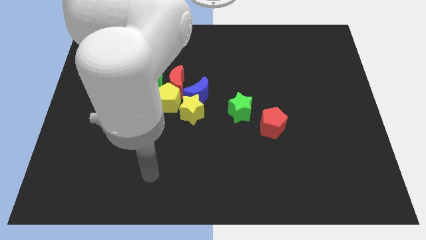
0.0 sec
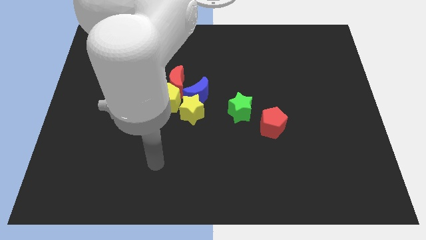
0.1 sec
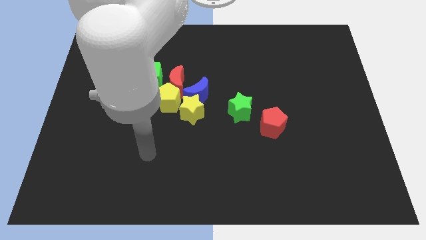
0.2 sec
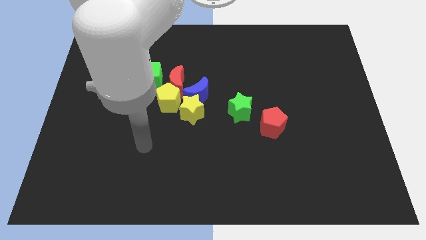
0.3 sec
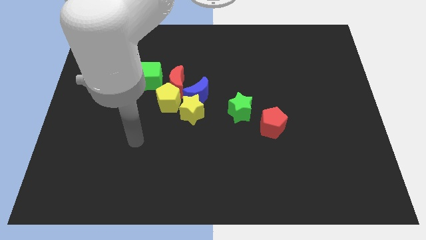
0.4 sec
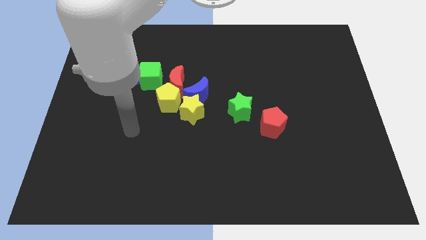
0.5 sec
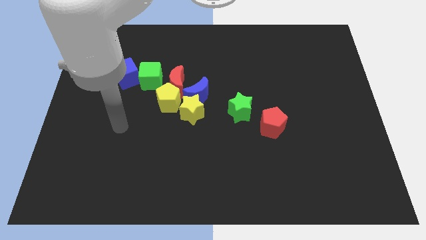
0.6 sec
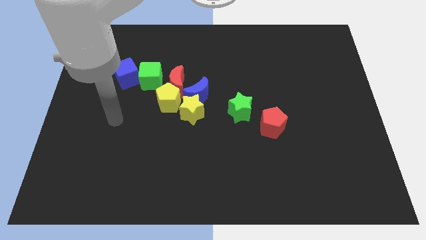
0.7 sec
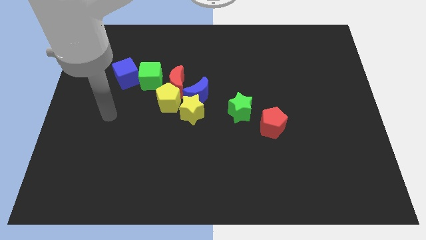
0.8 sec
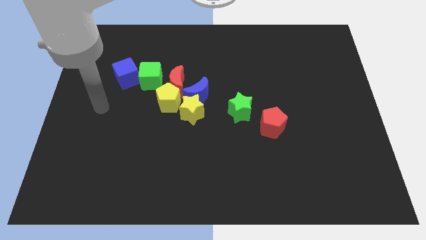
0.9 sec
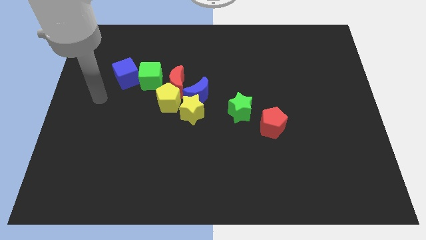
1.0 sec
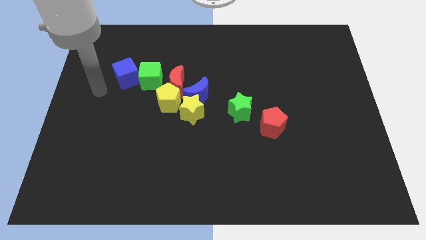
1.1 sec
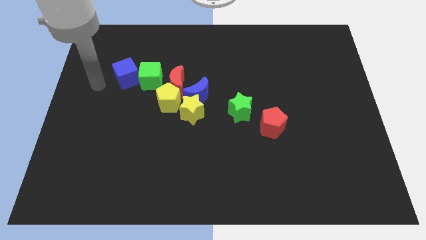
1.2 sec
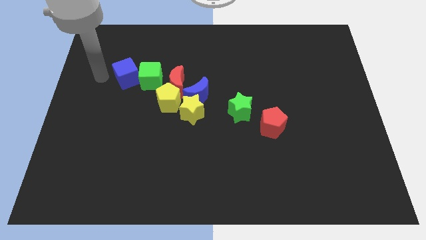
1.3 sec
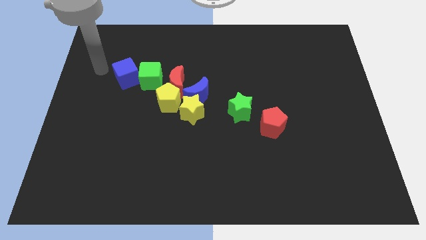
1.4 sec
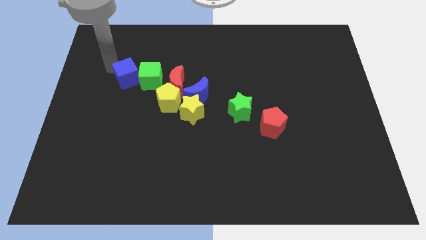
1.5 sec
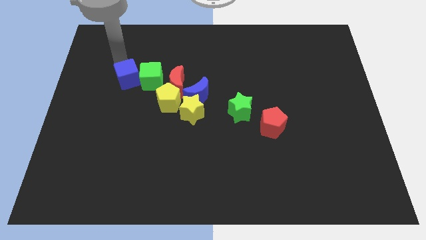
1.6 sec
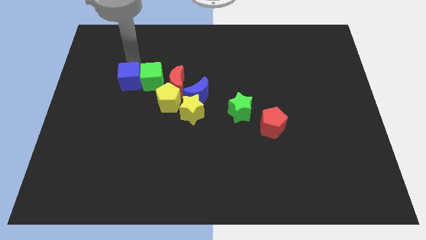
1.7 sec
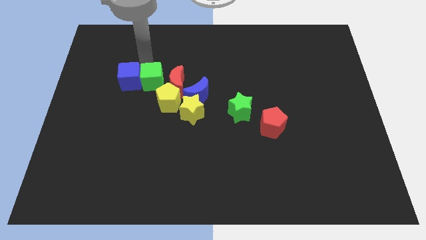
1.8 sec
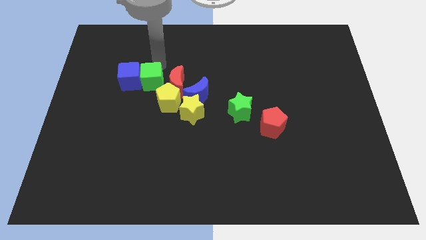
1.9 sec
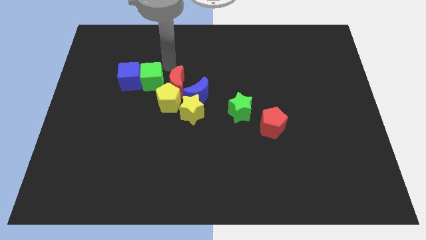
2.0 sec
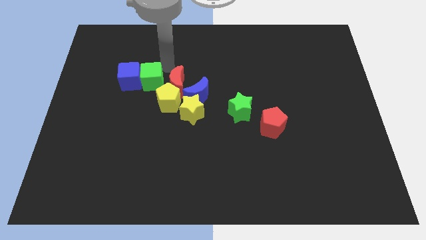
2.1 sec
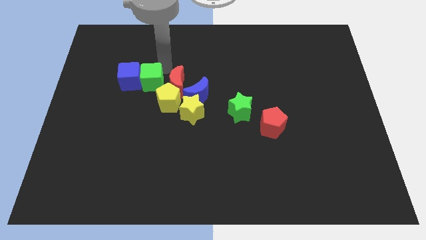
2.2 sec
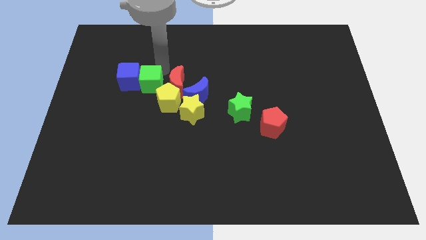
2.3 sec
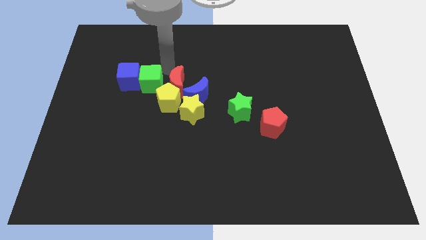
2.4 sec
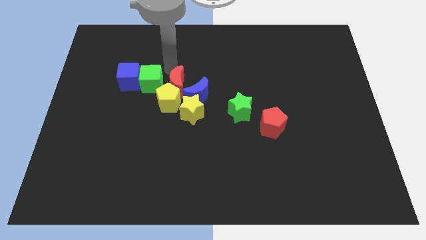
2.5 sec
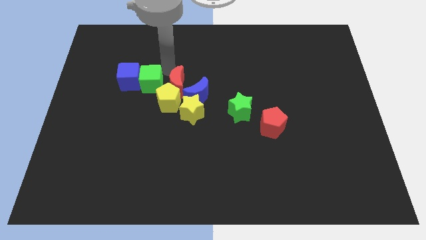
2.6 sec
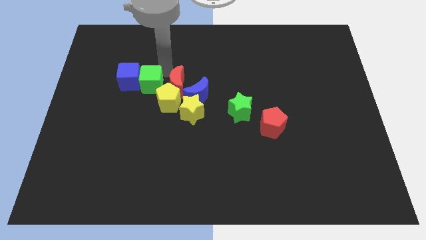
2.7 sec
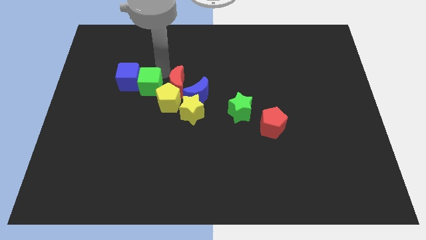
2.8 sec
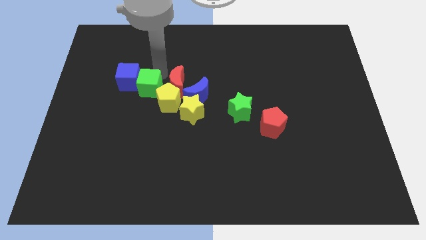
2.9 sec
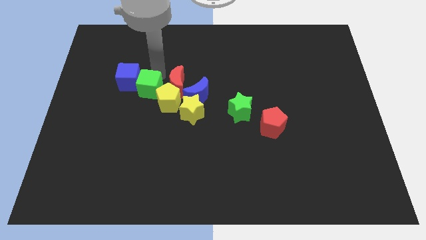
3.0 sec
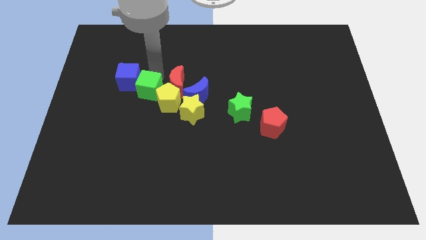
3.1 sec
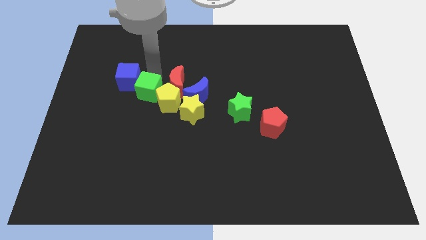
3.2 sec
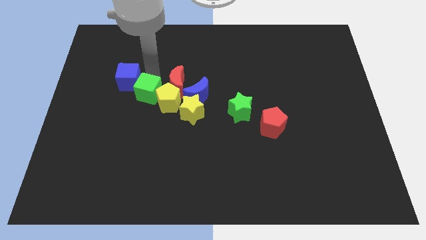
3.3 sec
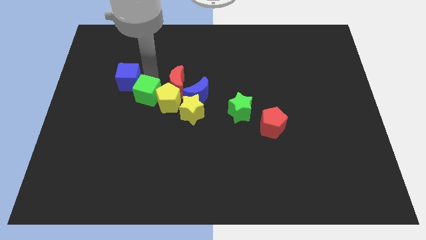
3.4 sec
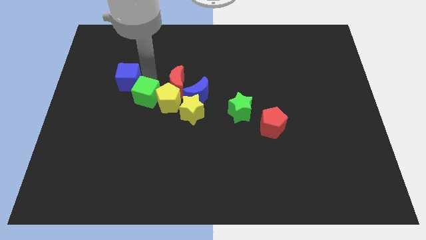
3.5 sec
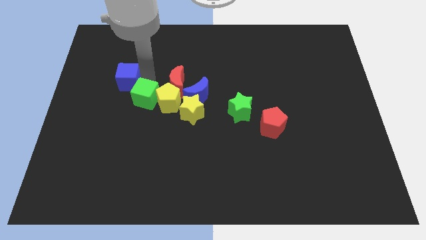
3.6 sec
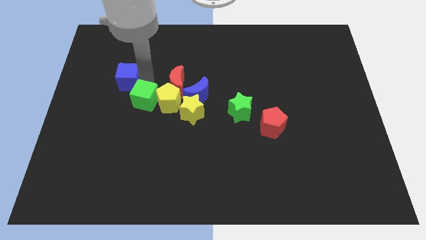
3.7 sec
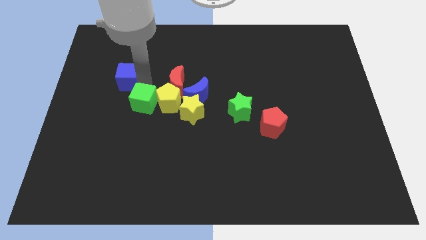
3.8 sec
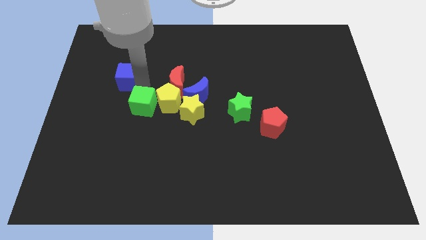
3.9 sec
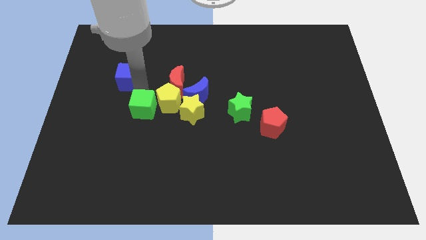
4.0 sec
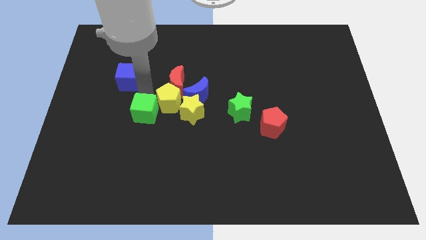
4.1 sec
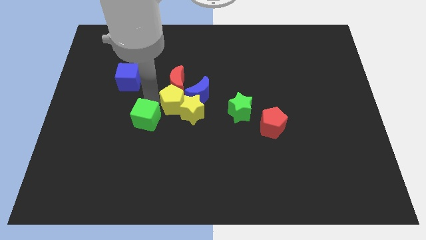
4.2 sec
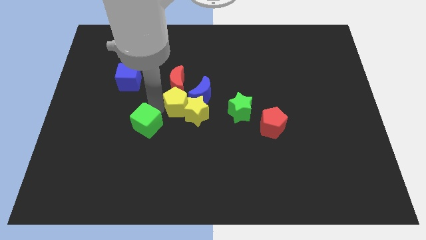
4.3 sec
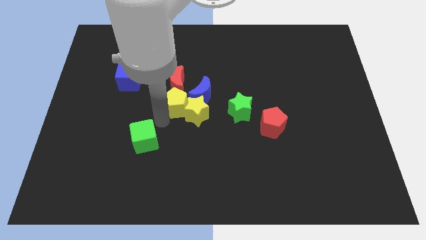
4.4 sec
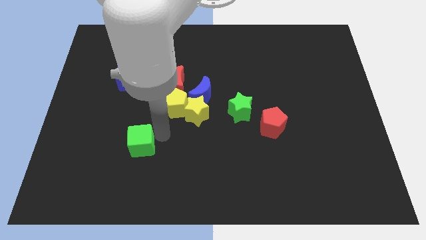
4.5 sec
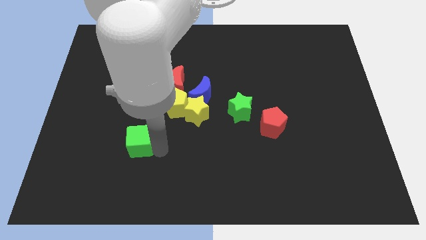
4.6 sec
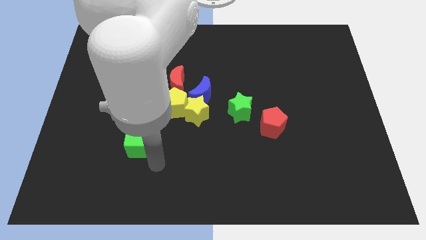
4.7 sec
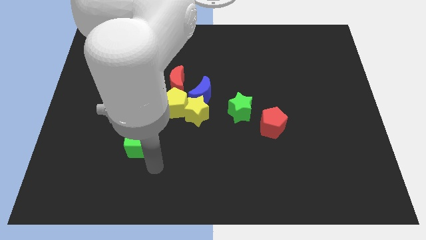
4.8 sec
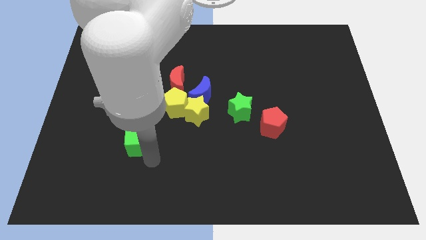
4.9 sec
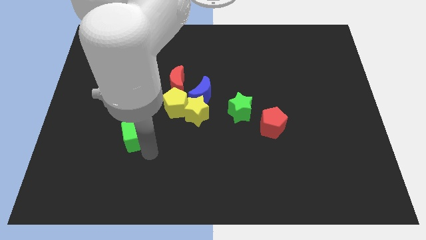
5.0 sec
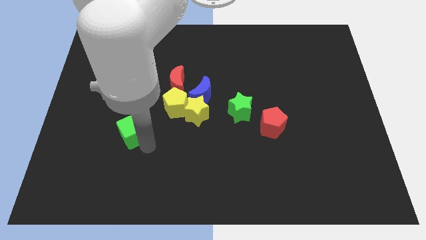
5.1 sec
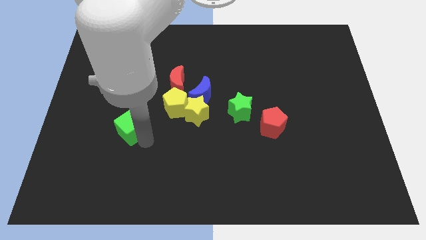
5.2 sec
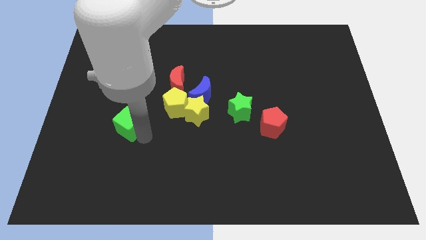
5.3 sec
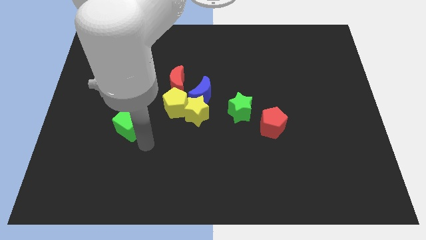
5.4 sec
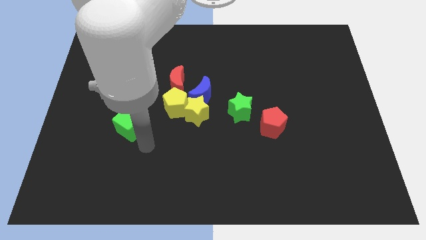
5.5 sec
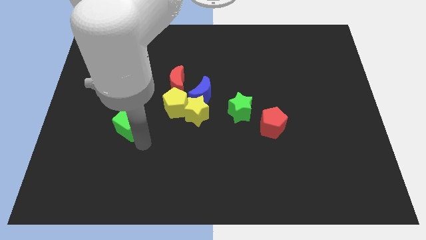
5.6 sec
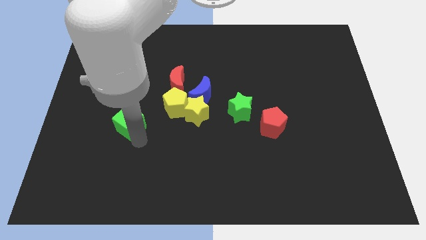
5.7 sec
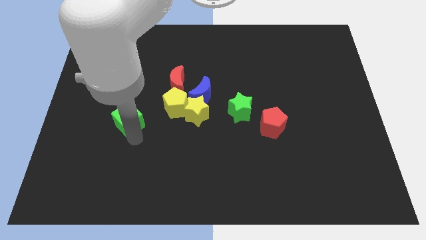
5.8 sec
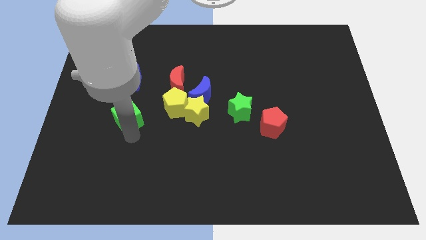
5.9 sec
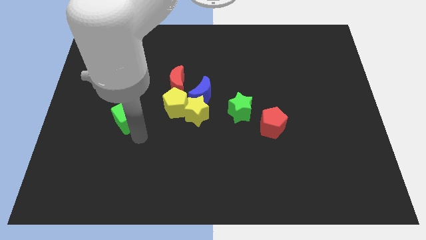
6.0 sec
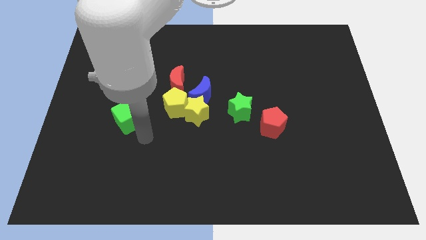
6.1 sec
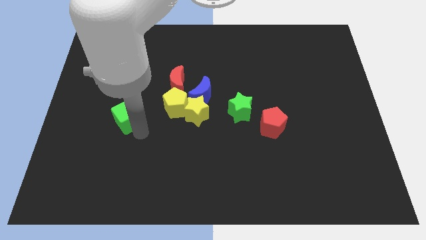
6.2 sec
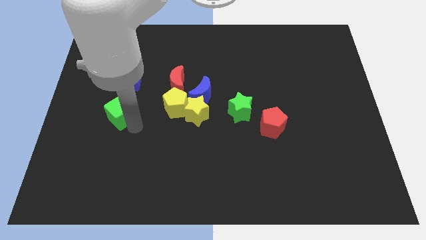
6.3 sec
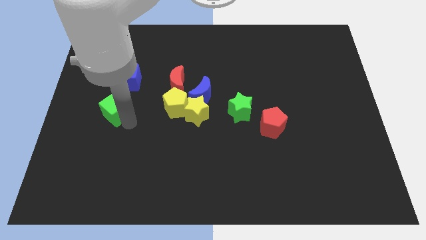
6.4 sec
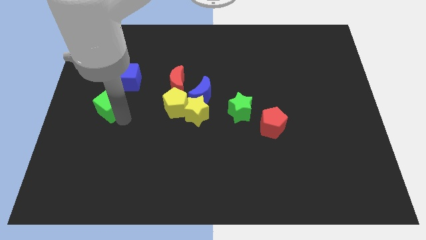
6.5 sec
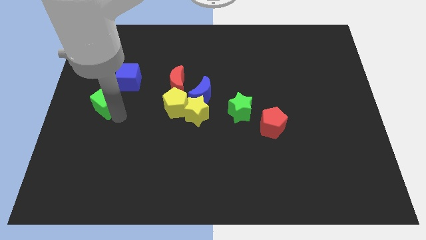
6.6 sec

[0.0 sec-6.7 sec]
move the green cube to the left side

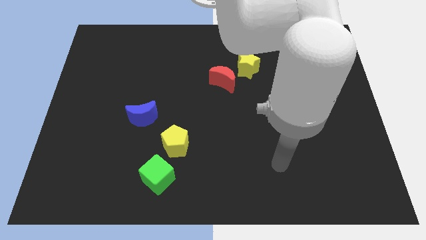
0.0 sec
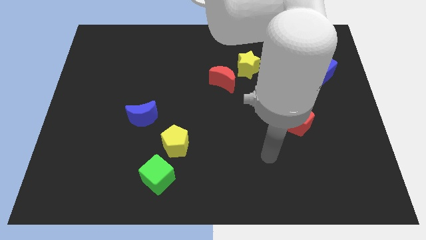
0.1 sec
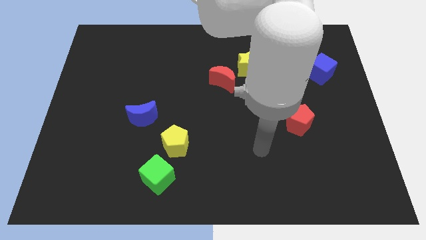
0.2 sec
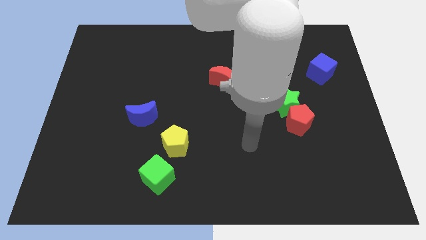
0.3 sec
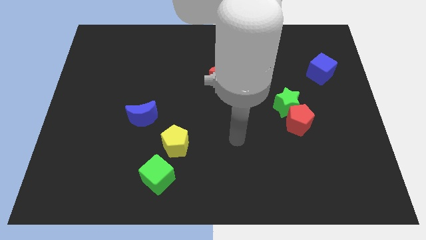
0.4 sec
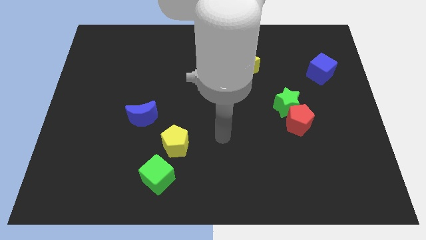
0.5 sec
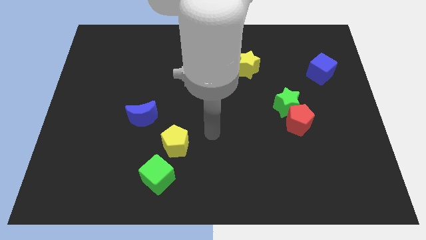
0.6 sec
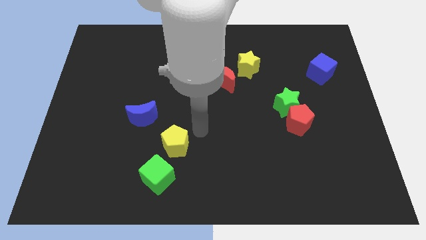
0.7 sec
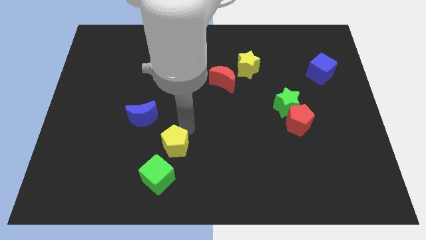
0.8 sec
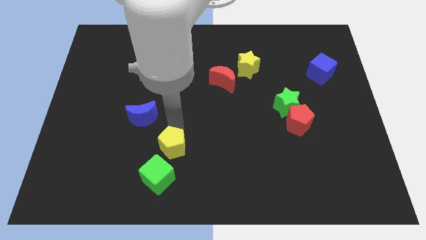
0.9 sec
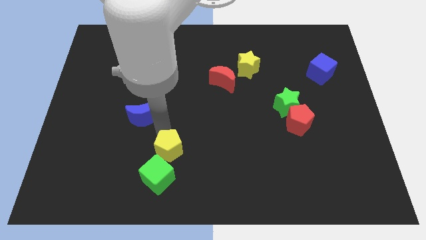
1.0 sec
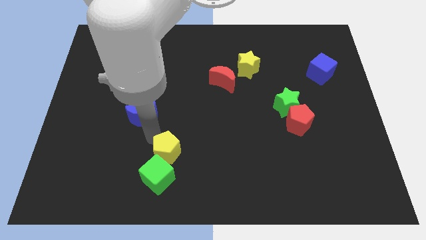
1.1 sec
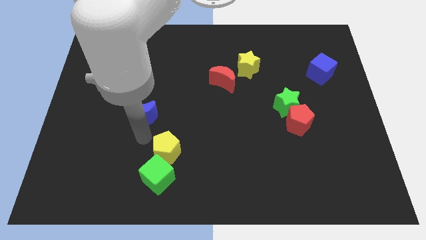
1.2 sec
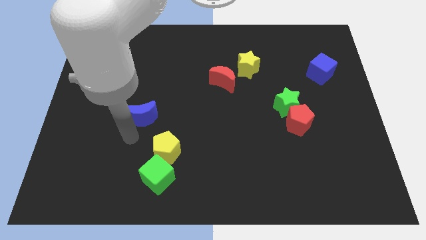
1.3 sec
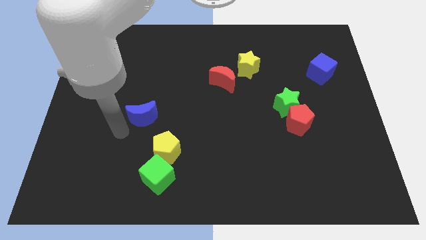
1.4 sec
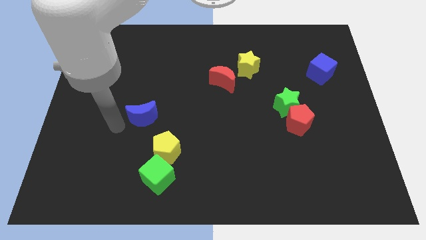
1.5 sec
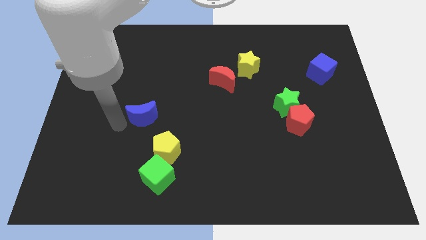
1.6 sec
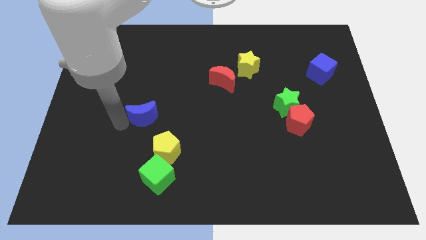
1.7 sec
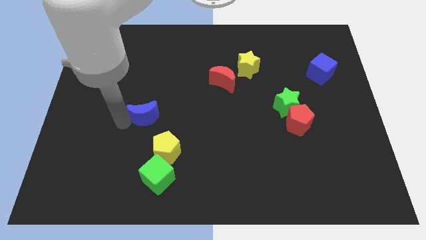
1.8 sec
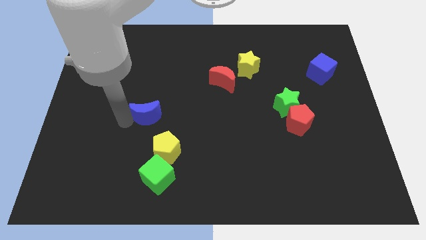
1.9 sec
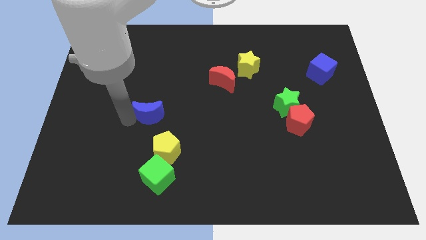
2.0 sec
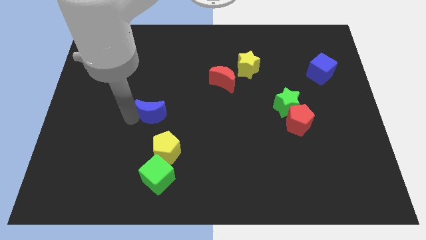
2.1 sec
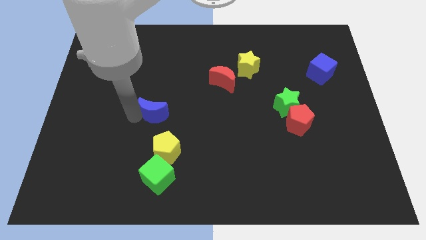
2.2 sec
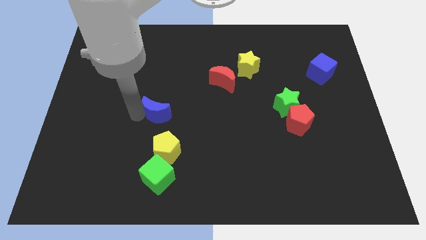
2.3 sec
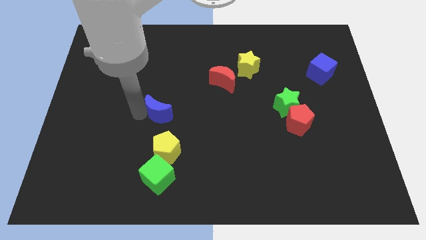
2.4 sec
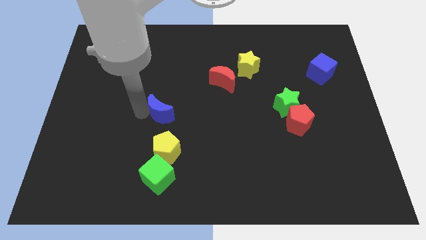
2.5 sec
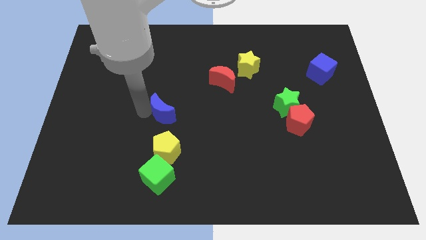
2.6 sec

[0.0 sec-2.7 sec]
put the blue moon to the middle
